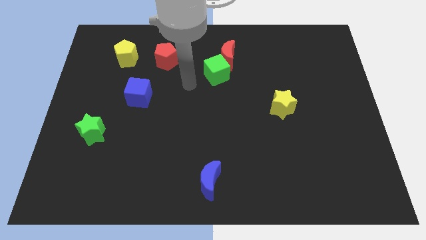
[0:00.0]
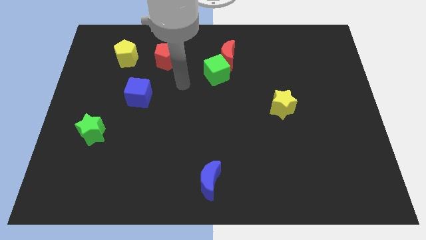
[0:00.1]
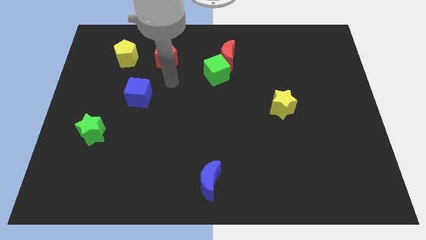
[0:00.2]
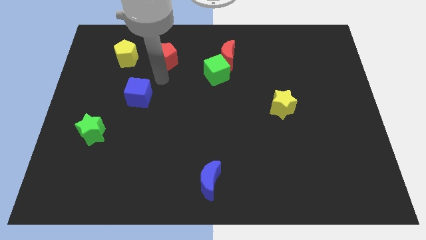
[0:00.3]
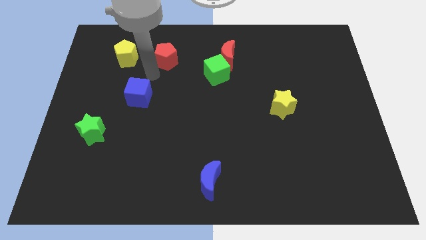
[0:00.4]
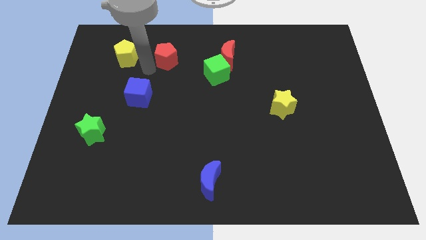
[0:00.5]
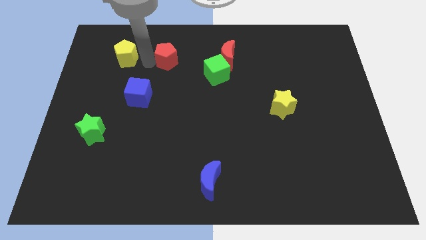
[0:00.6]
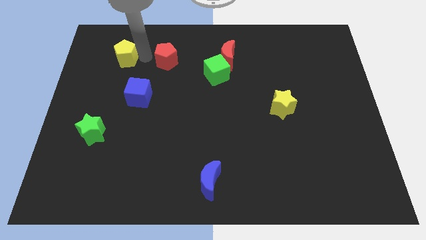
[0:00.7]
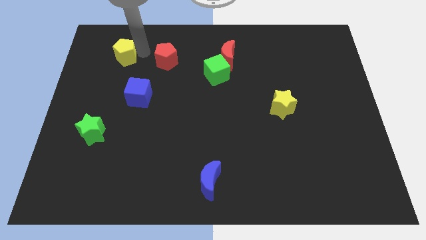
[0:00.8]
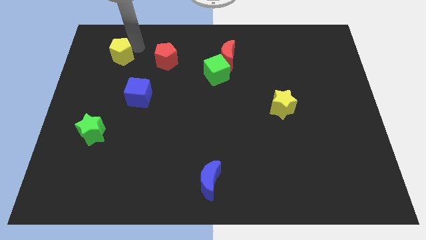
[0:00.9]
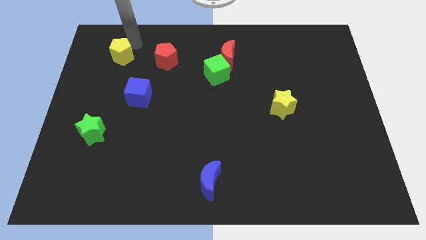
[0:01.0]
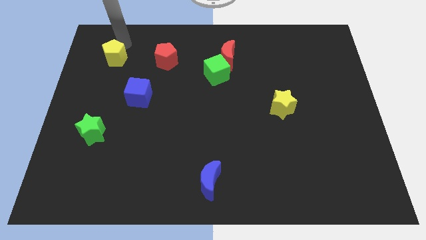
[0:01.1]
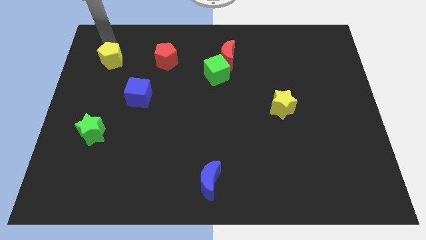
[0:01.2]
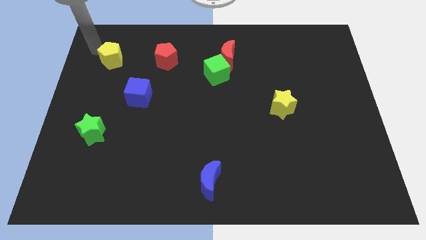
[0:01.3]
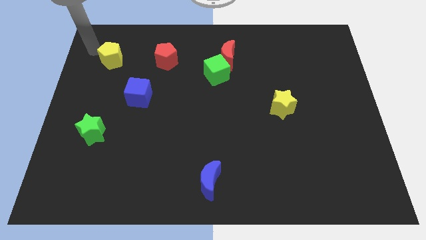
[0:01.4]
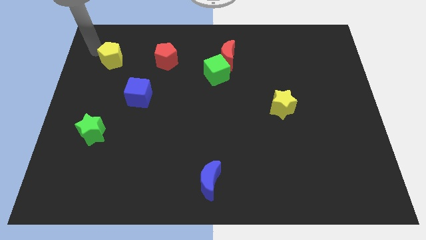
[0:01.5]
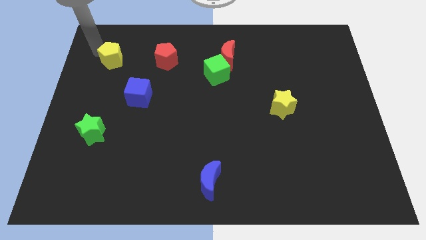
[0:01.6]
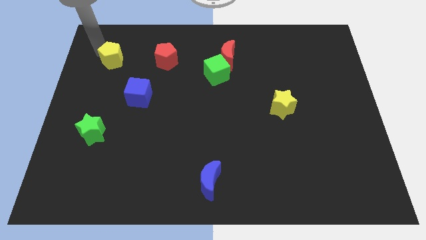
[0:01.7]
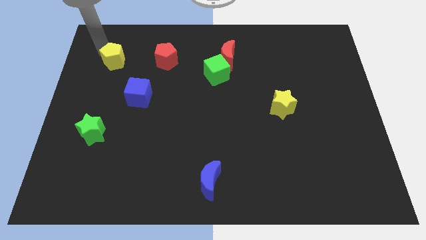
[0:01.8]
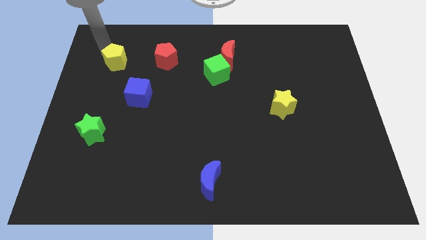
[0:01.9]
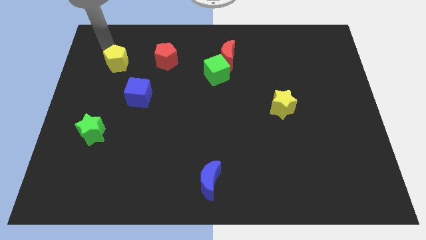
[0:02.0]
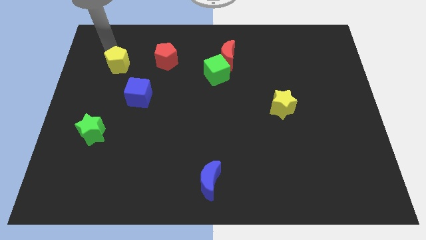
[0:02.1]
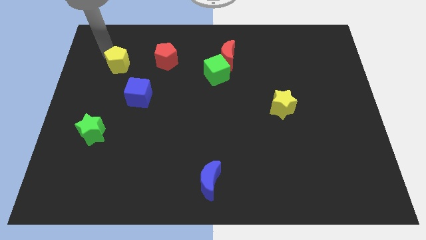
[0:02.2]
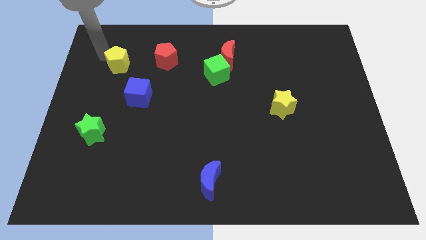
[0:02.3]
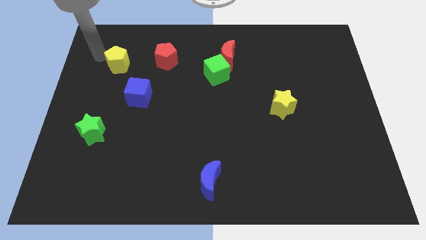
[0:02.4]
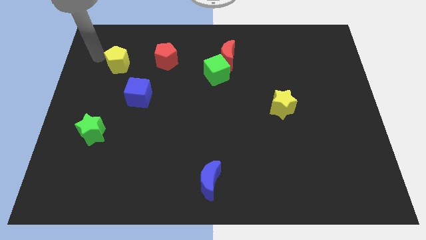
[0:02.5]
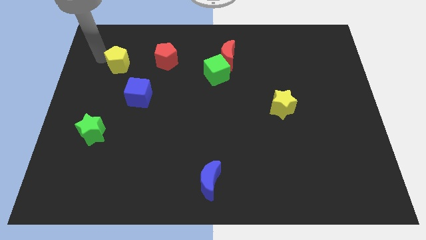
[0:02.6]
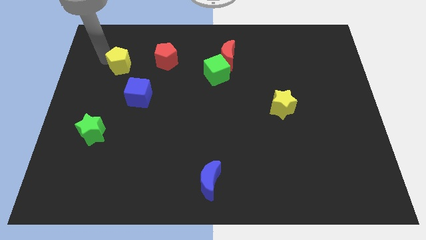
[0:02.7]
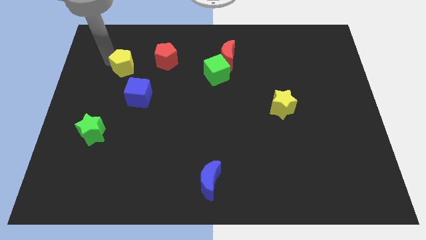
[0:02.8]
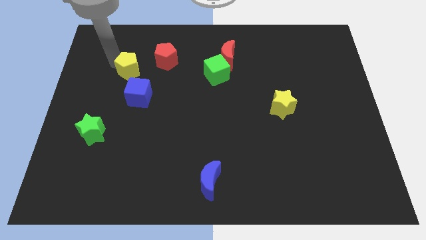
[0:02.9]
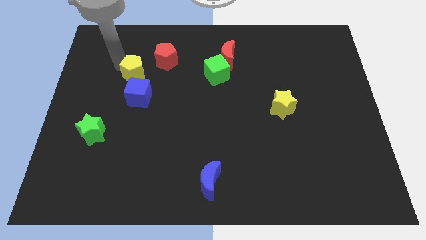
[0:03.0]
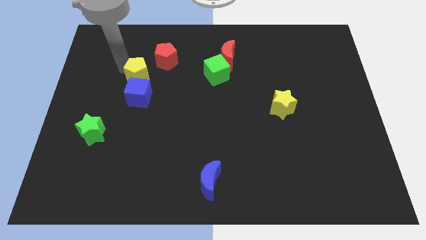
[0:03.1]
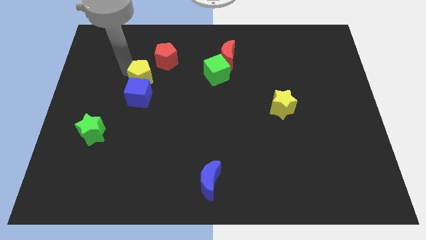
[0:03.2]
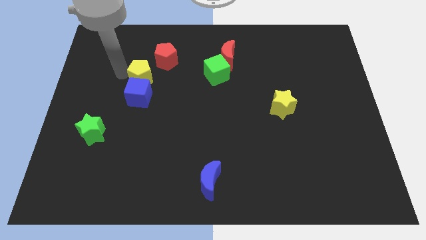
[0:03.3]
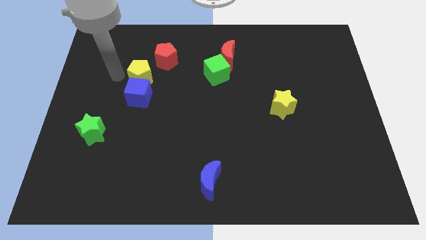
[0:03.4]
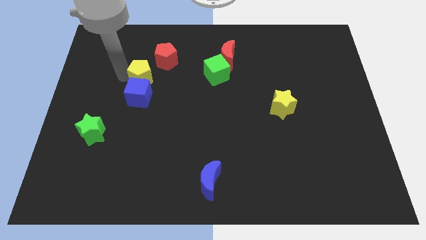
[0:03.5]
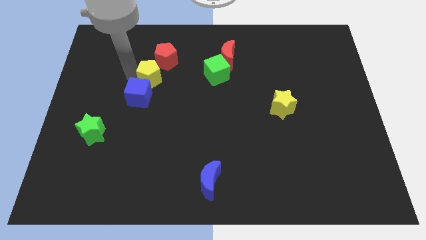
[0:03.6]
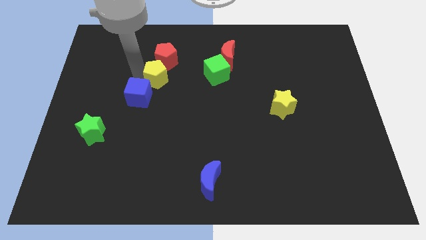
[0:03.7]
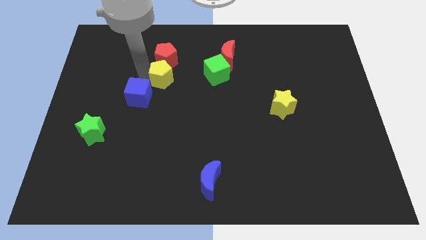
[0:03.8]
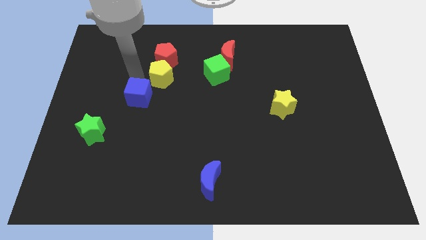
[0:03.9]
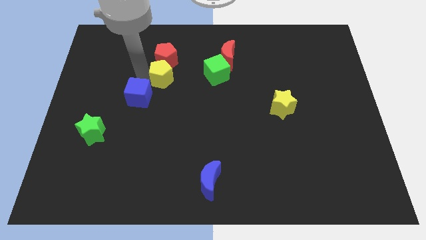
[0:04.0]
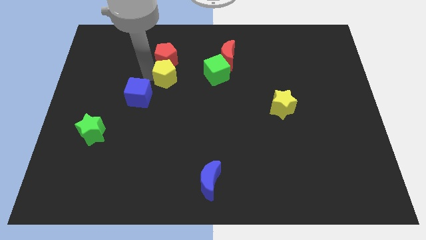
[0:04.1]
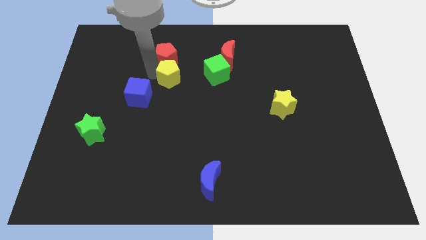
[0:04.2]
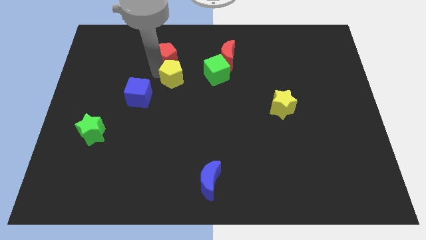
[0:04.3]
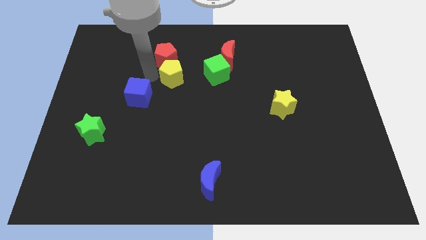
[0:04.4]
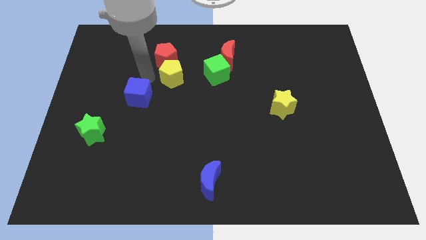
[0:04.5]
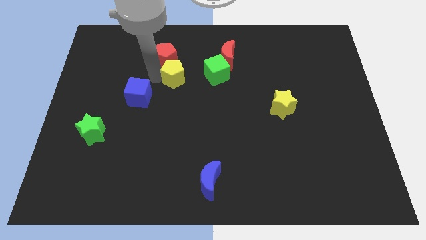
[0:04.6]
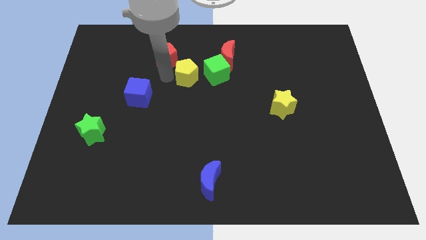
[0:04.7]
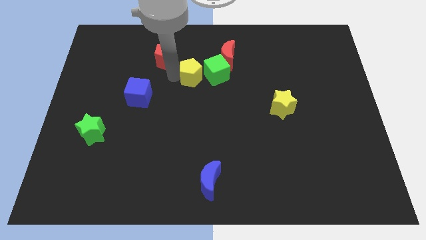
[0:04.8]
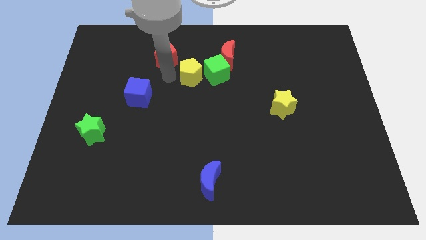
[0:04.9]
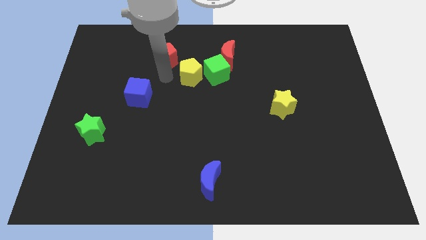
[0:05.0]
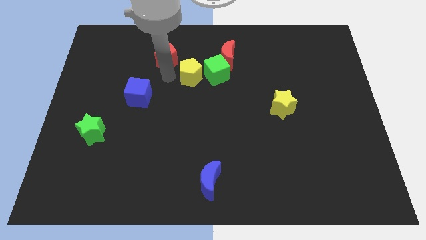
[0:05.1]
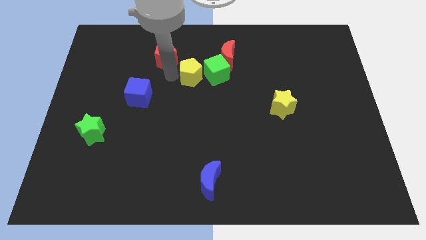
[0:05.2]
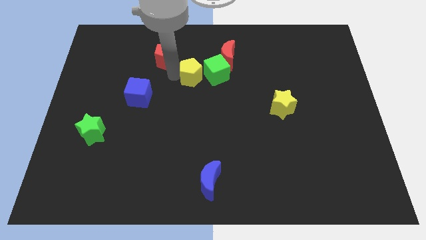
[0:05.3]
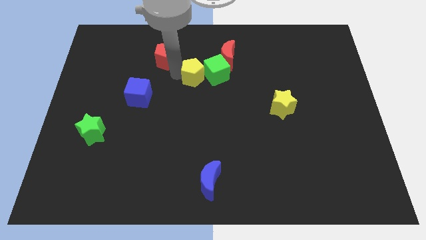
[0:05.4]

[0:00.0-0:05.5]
push the yellow pentagon next to the green cube

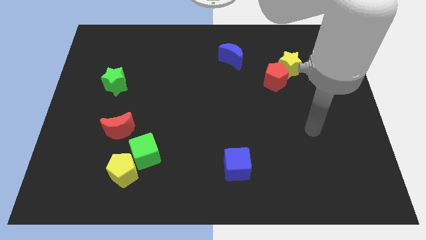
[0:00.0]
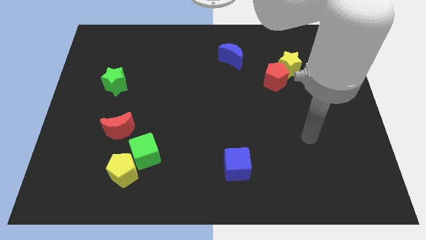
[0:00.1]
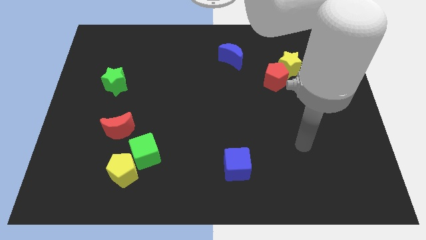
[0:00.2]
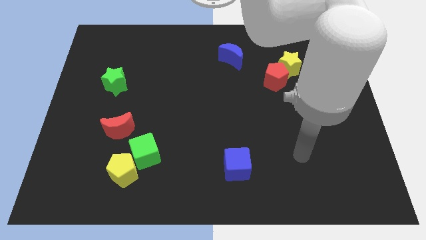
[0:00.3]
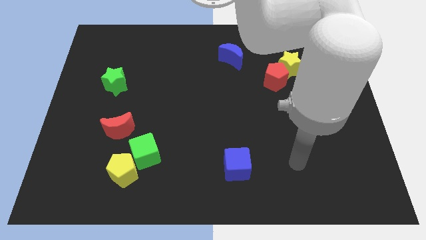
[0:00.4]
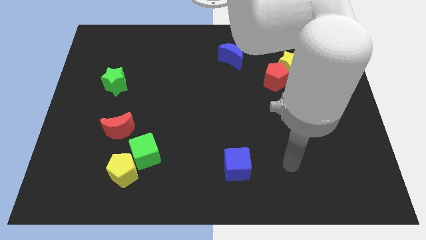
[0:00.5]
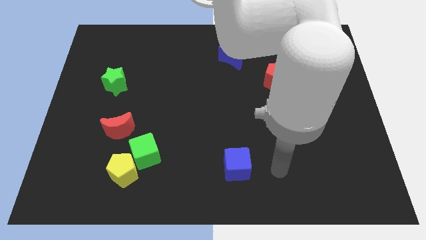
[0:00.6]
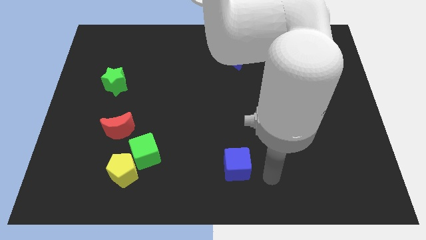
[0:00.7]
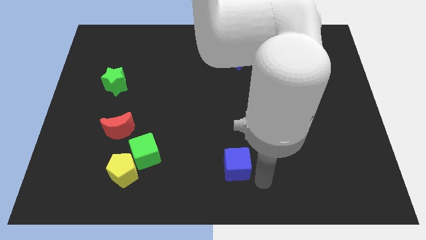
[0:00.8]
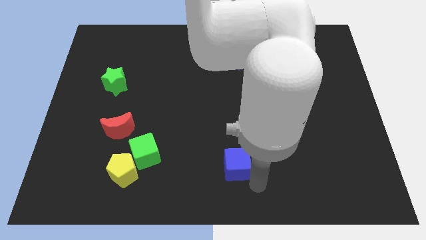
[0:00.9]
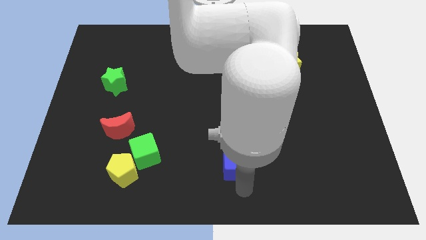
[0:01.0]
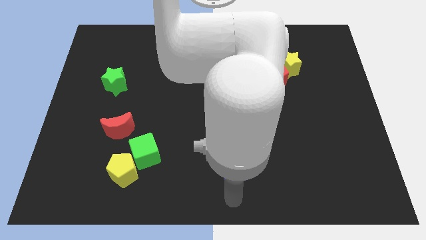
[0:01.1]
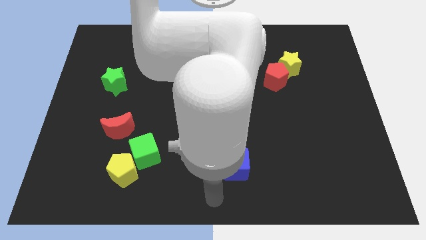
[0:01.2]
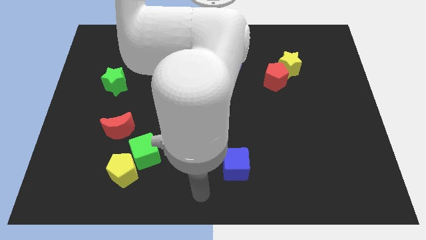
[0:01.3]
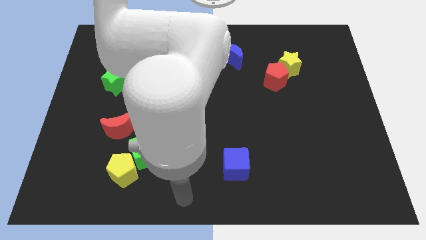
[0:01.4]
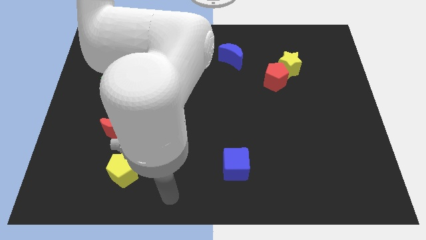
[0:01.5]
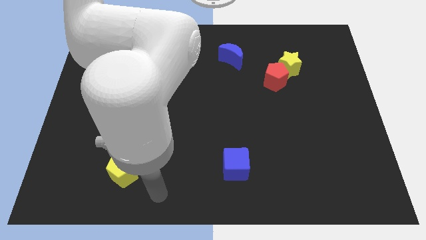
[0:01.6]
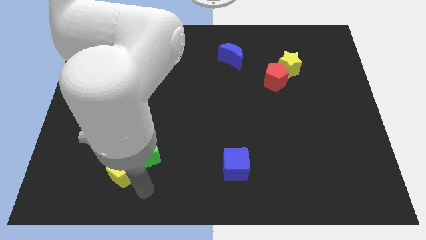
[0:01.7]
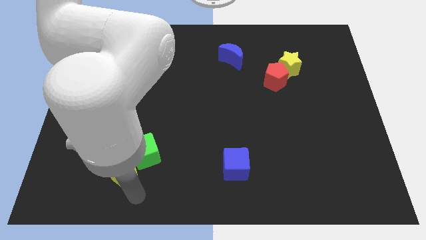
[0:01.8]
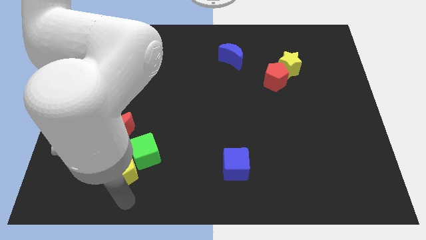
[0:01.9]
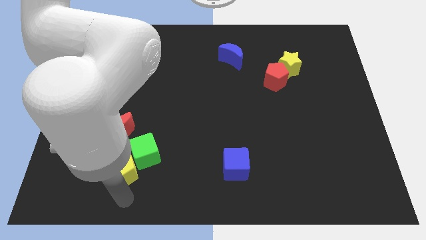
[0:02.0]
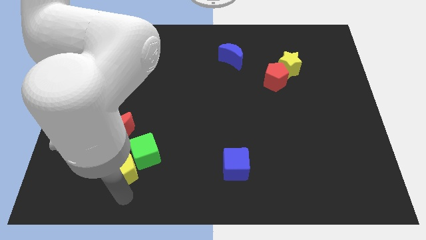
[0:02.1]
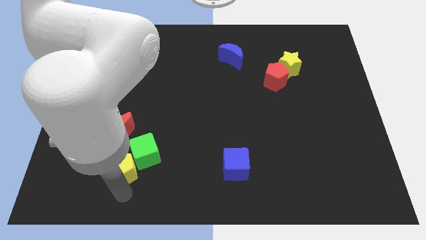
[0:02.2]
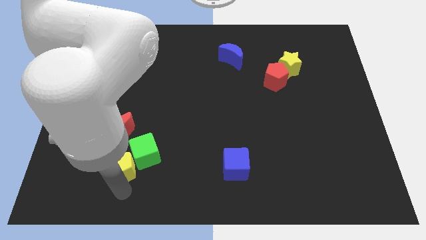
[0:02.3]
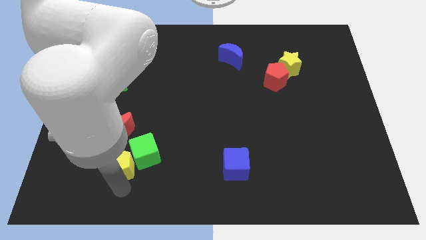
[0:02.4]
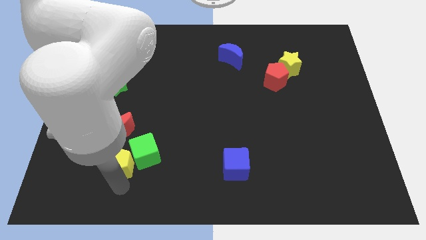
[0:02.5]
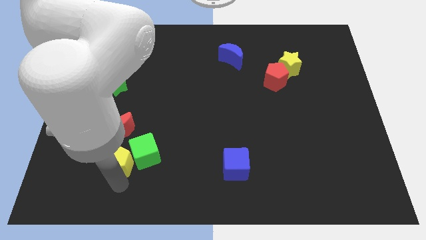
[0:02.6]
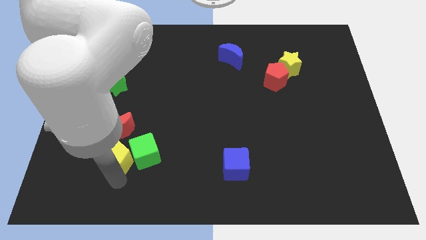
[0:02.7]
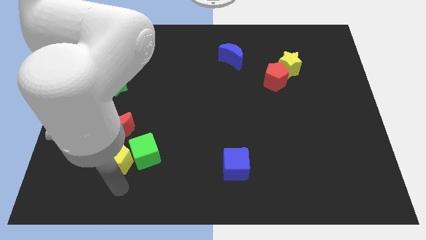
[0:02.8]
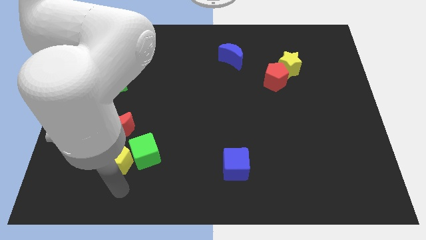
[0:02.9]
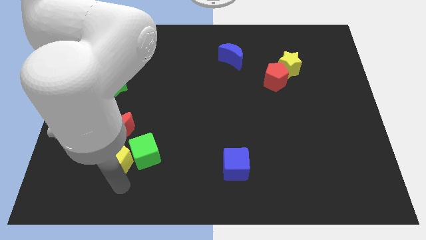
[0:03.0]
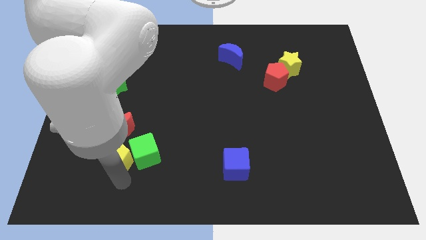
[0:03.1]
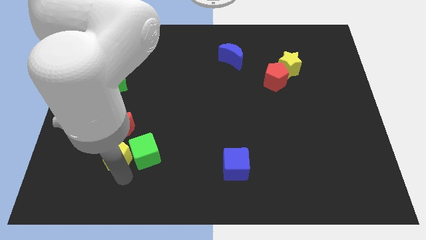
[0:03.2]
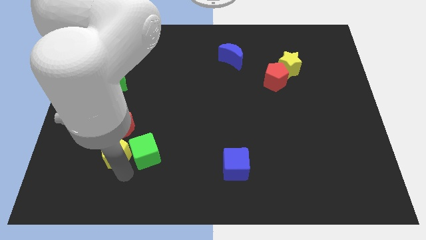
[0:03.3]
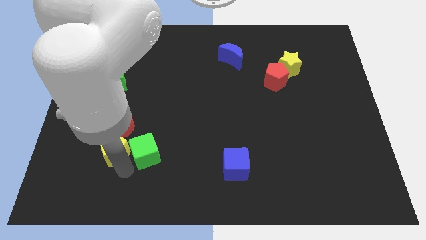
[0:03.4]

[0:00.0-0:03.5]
put the yellow pentagon to the red moon
